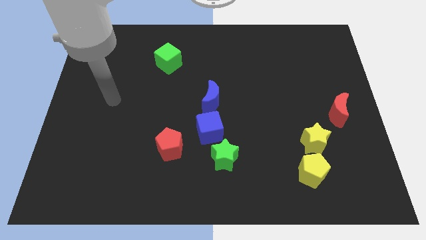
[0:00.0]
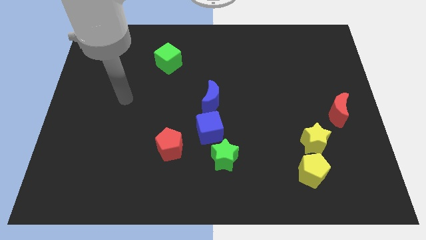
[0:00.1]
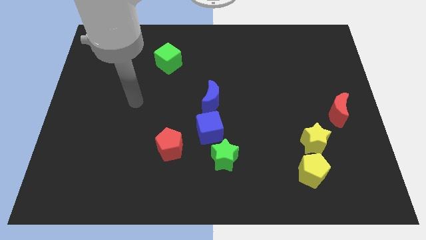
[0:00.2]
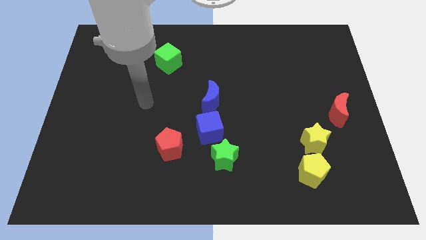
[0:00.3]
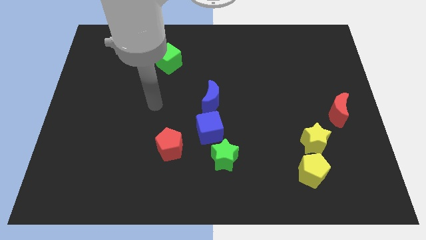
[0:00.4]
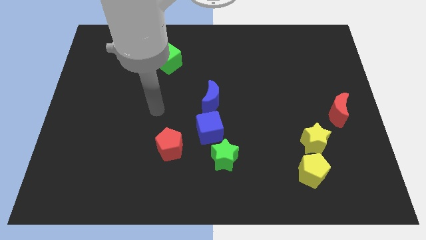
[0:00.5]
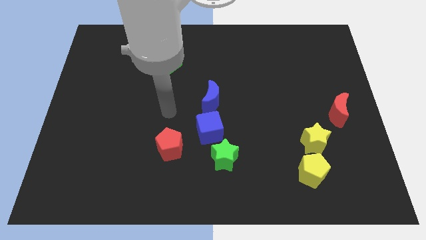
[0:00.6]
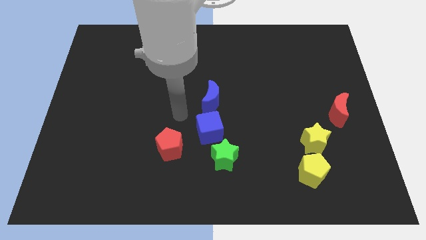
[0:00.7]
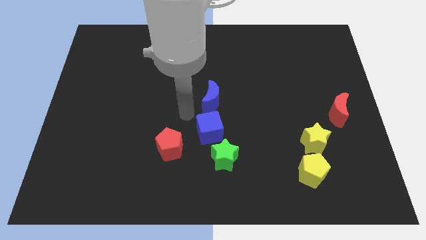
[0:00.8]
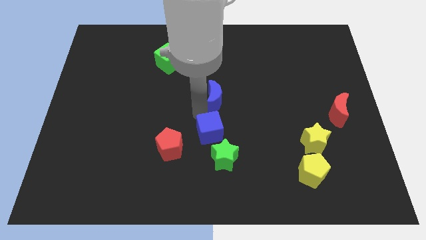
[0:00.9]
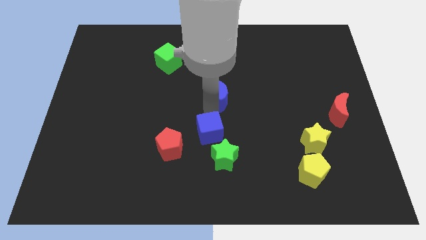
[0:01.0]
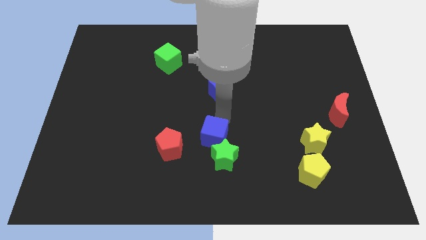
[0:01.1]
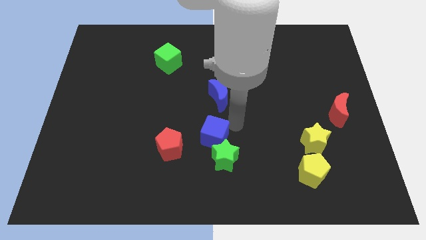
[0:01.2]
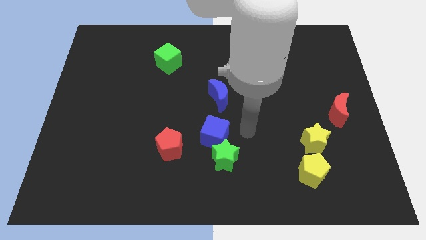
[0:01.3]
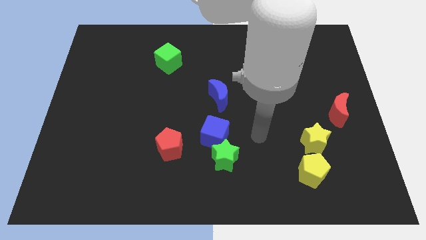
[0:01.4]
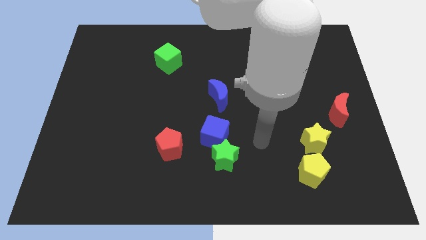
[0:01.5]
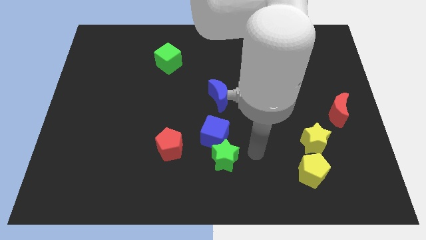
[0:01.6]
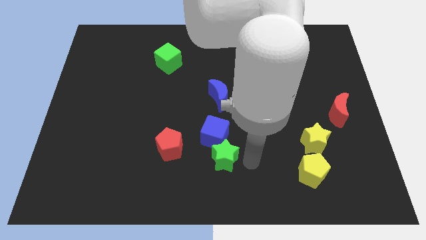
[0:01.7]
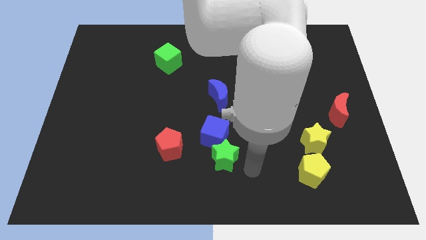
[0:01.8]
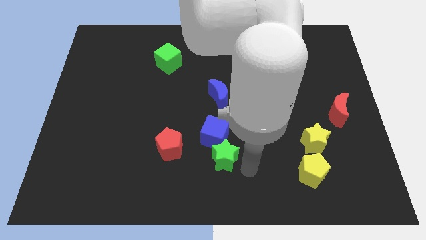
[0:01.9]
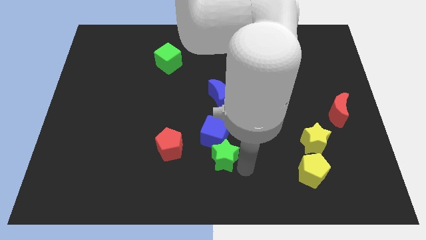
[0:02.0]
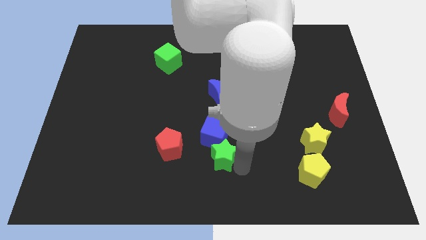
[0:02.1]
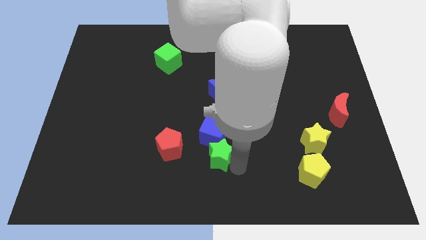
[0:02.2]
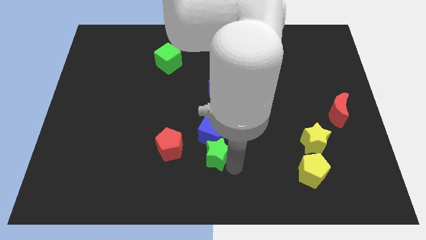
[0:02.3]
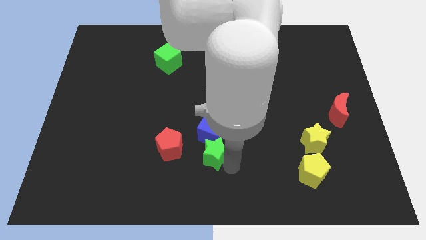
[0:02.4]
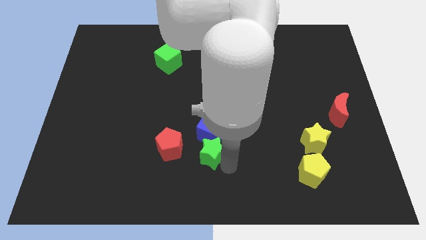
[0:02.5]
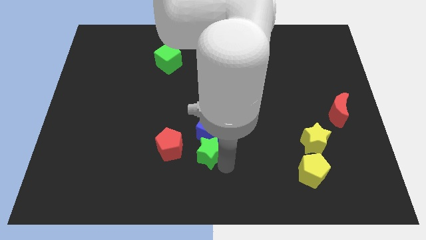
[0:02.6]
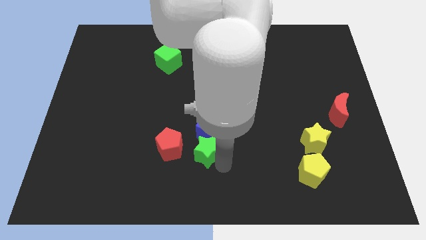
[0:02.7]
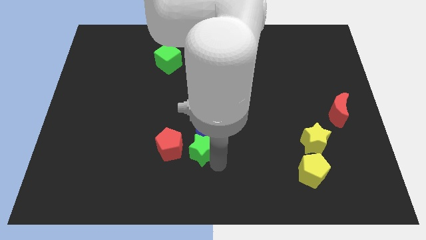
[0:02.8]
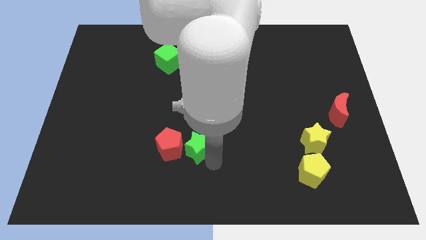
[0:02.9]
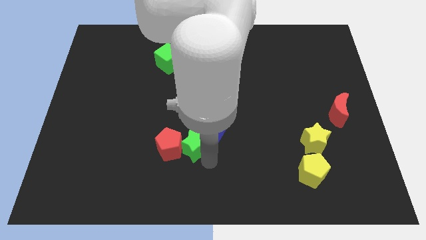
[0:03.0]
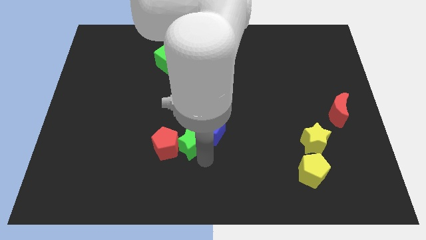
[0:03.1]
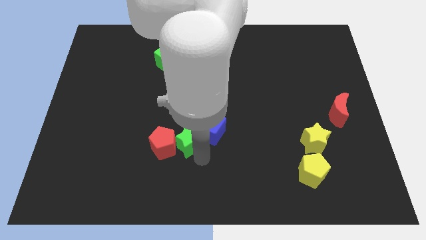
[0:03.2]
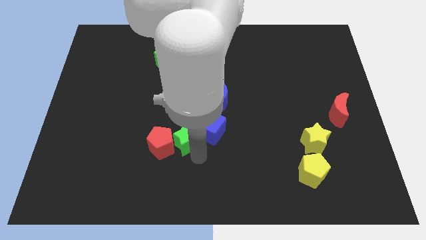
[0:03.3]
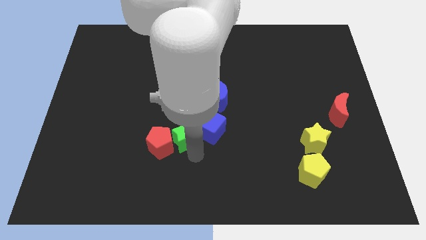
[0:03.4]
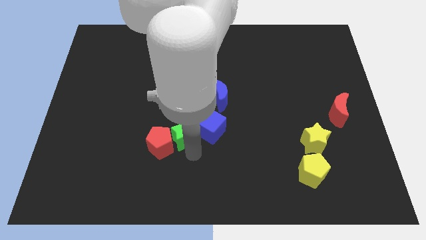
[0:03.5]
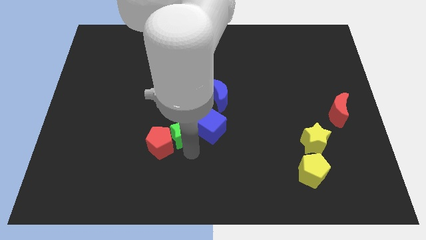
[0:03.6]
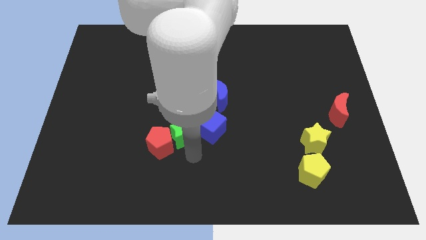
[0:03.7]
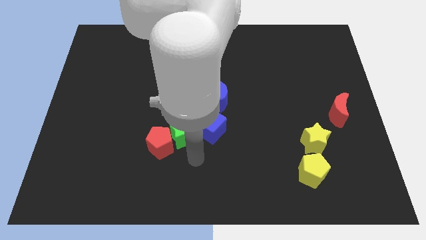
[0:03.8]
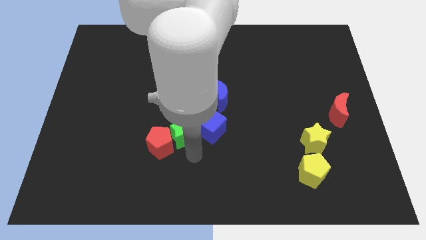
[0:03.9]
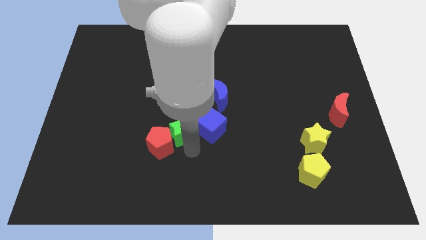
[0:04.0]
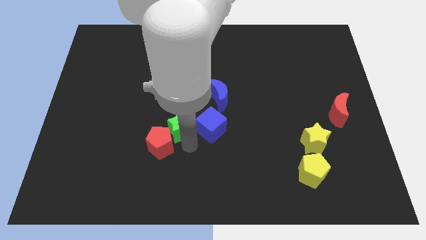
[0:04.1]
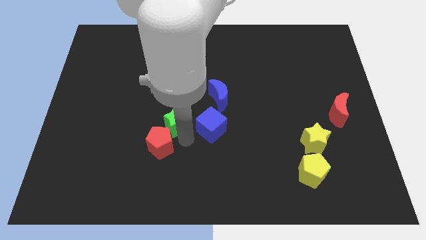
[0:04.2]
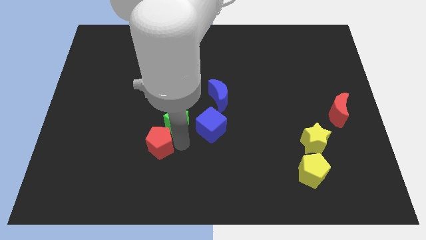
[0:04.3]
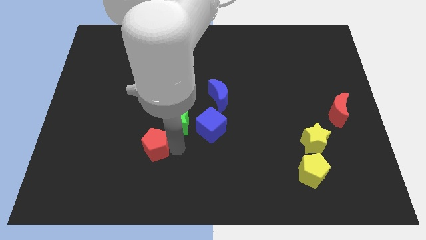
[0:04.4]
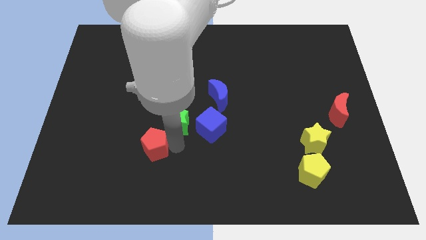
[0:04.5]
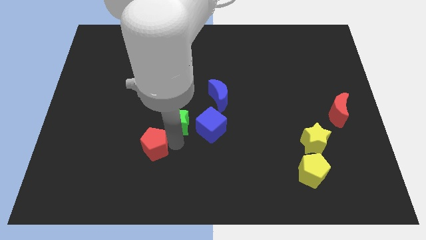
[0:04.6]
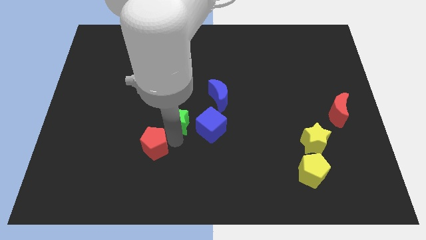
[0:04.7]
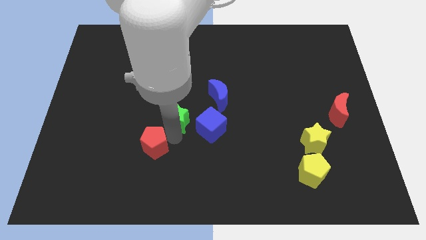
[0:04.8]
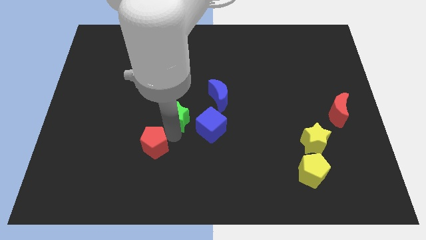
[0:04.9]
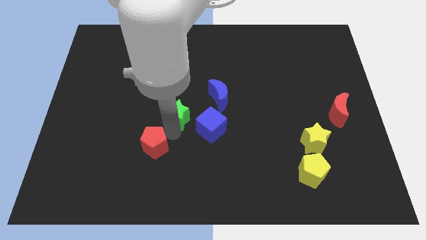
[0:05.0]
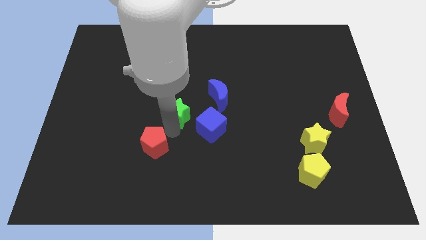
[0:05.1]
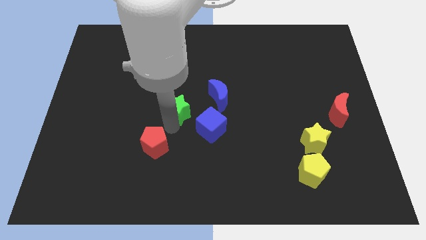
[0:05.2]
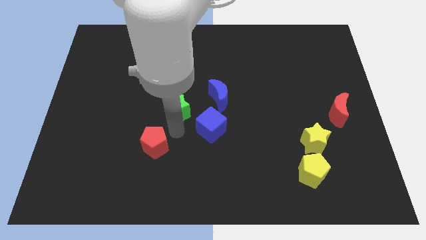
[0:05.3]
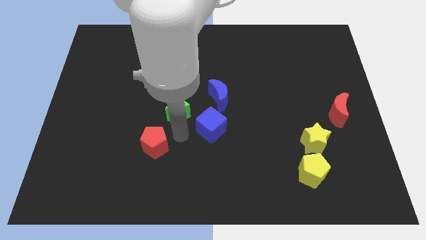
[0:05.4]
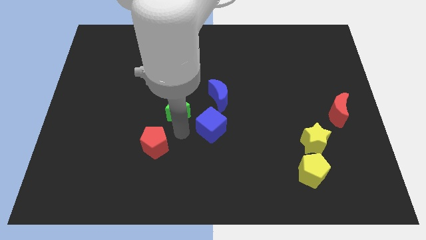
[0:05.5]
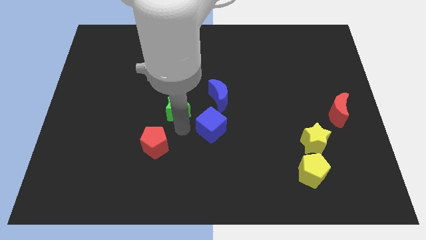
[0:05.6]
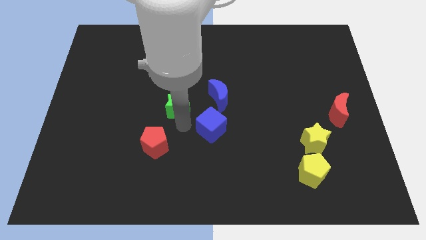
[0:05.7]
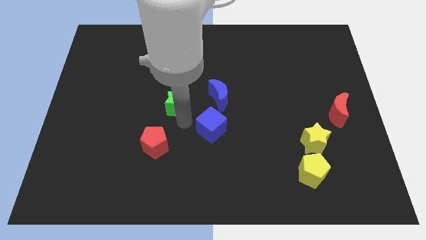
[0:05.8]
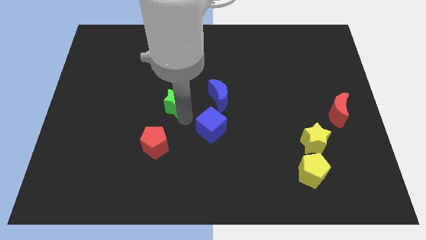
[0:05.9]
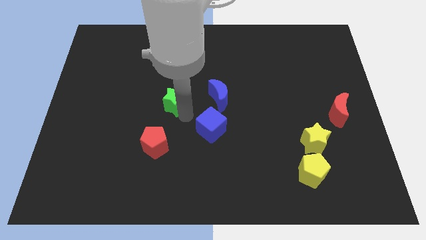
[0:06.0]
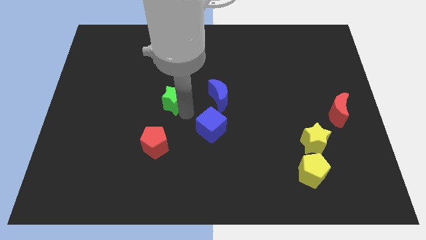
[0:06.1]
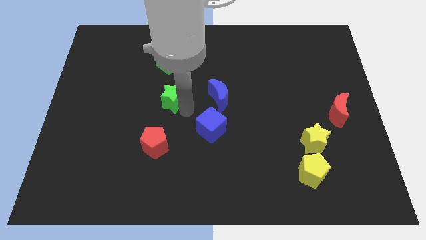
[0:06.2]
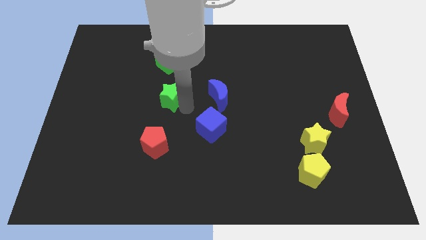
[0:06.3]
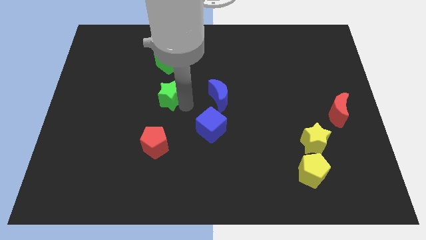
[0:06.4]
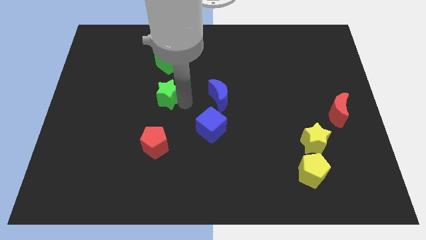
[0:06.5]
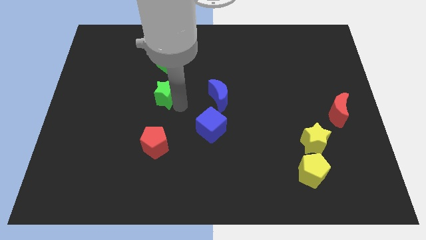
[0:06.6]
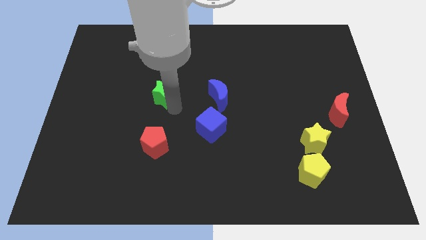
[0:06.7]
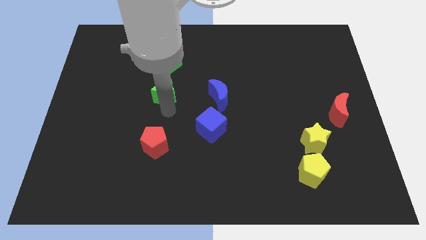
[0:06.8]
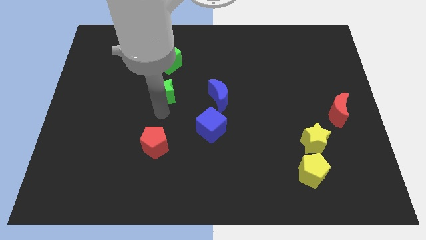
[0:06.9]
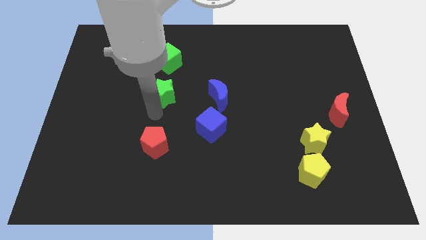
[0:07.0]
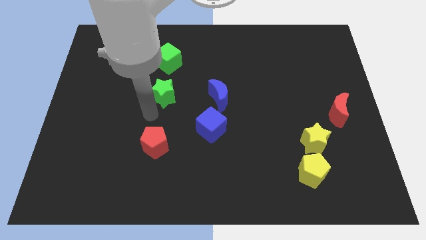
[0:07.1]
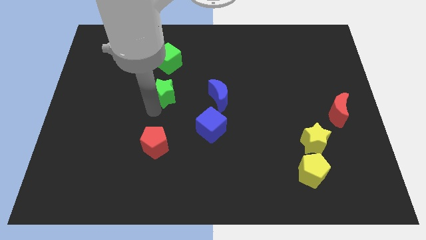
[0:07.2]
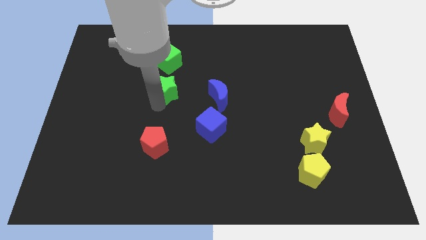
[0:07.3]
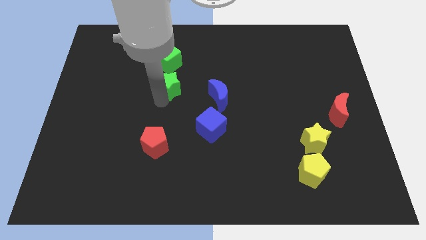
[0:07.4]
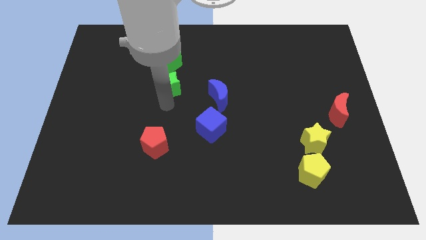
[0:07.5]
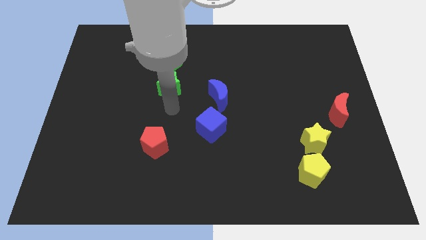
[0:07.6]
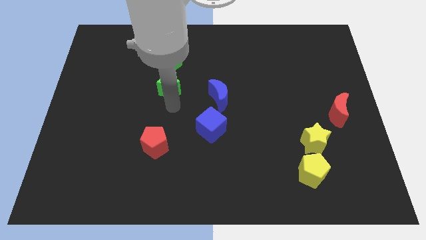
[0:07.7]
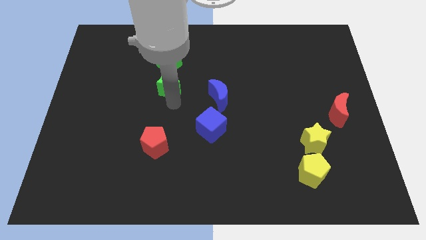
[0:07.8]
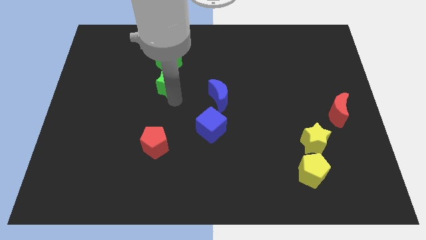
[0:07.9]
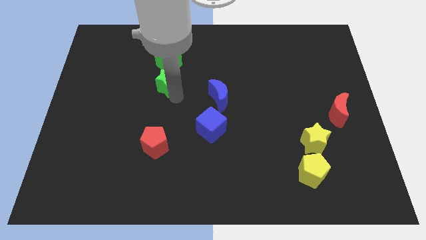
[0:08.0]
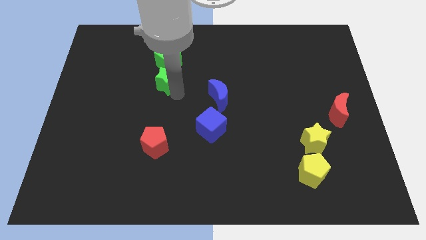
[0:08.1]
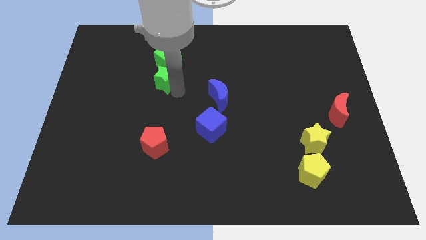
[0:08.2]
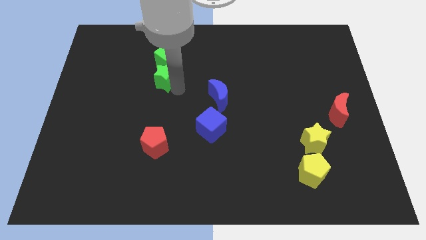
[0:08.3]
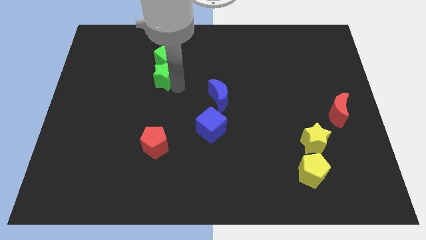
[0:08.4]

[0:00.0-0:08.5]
move the green star to the green cube
